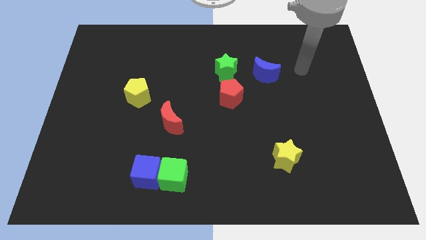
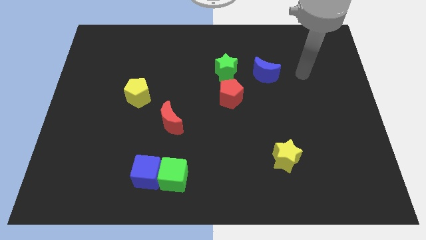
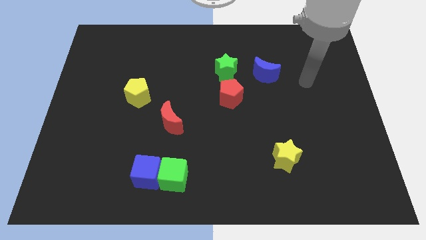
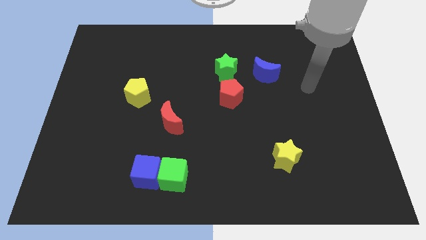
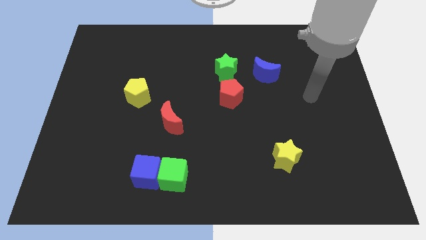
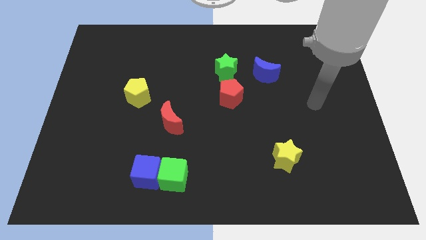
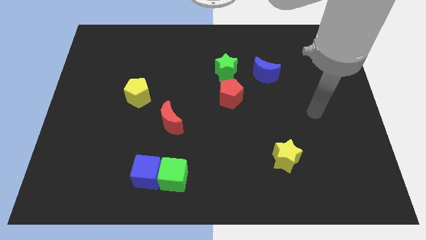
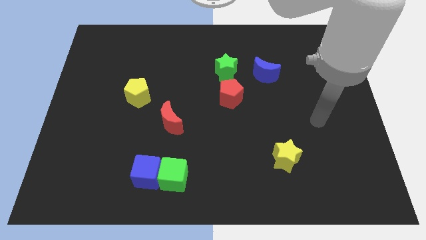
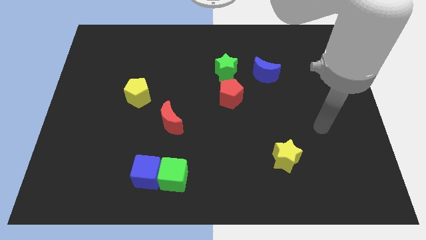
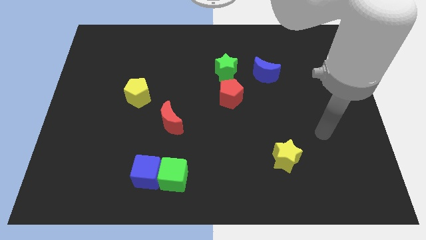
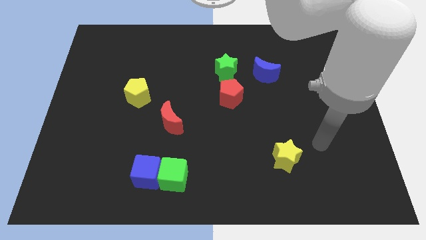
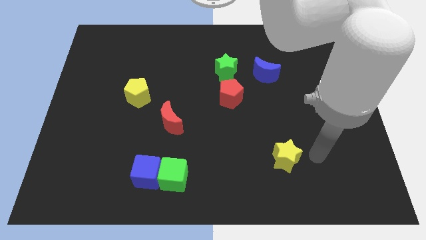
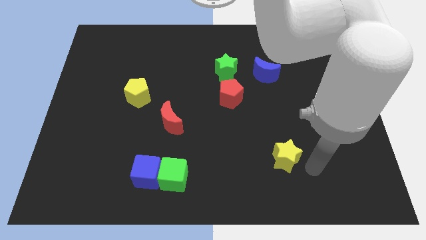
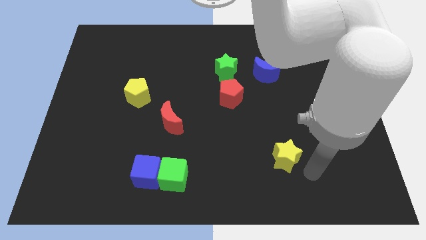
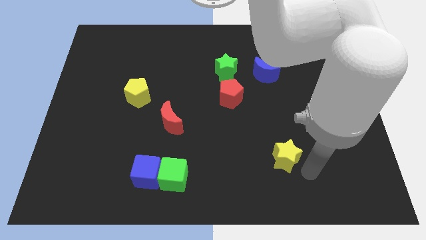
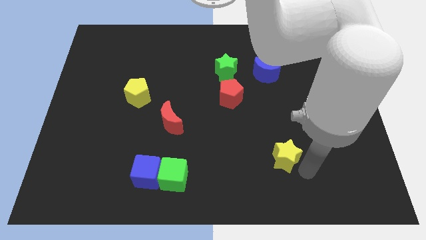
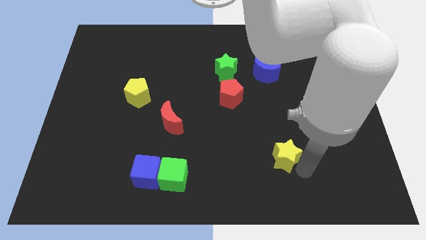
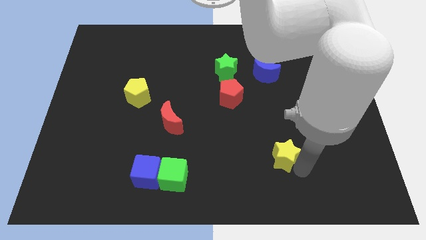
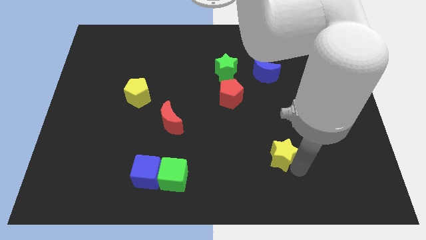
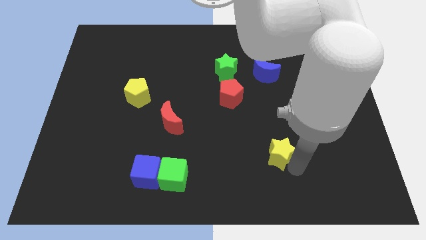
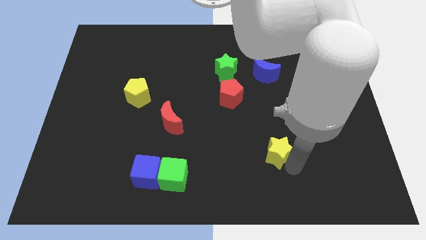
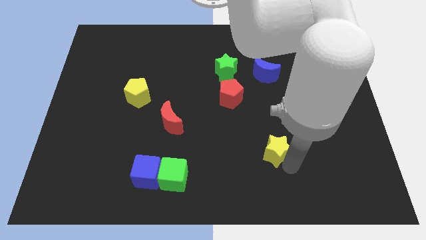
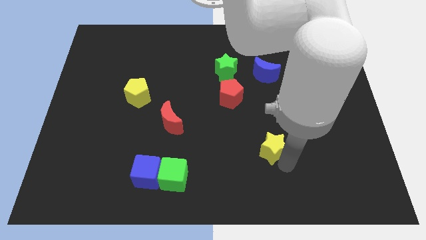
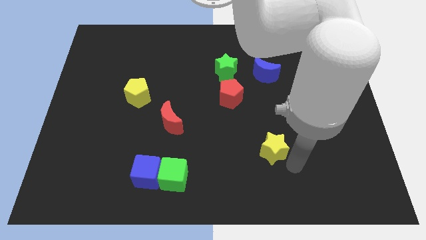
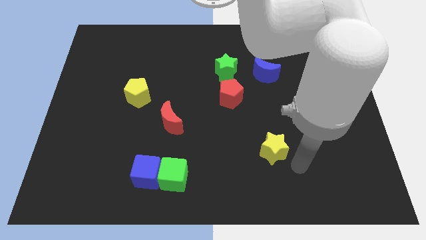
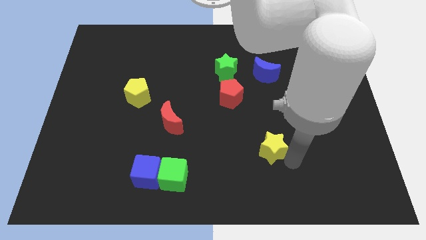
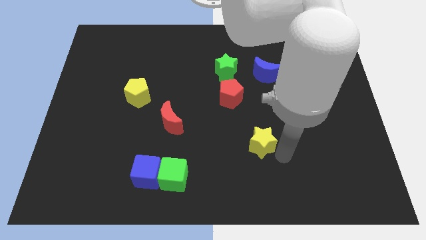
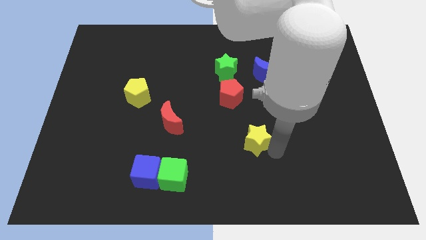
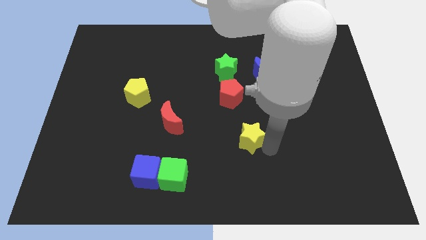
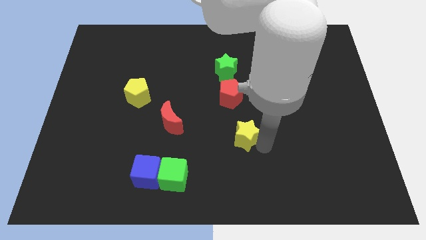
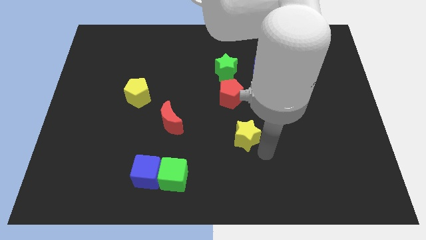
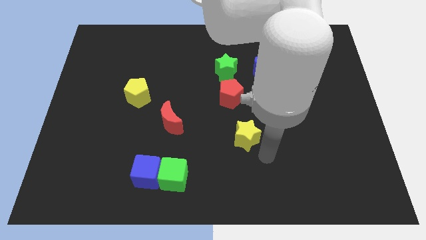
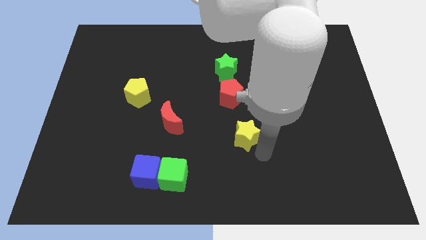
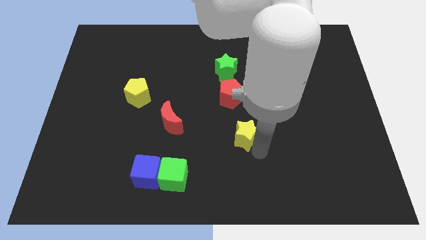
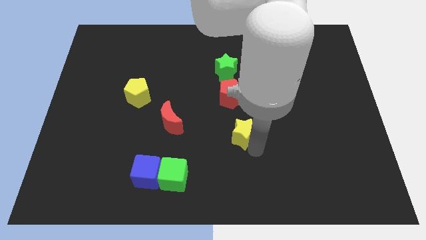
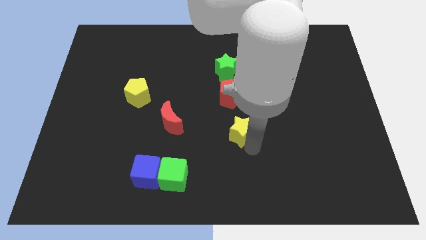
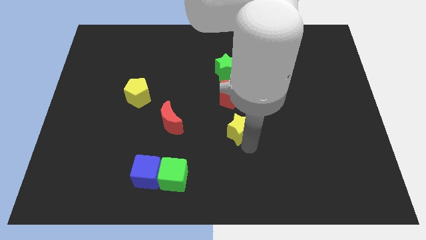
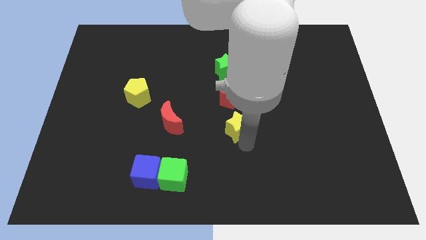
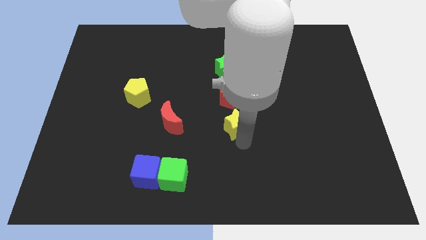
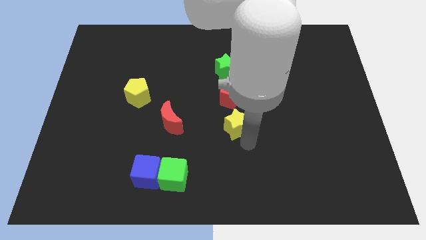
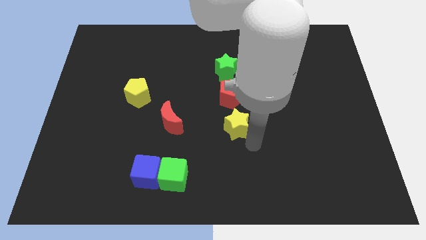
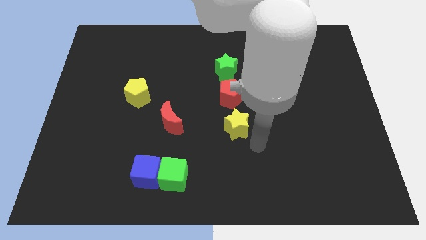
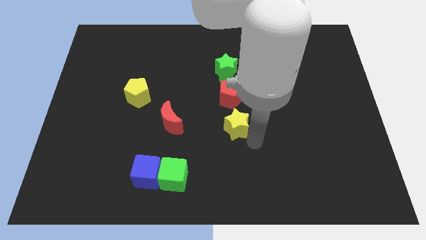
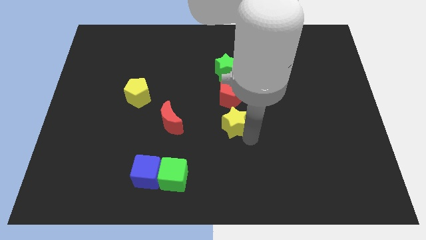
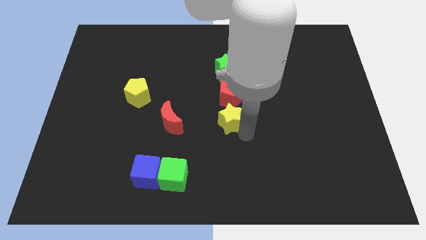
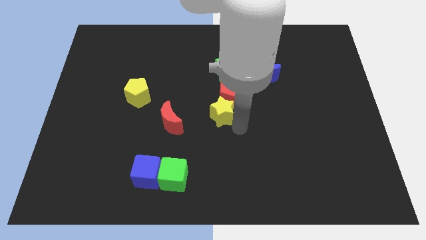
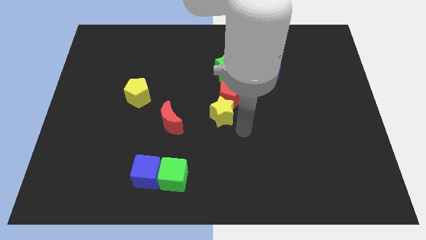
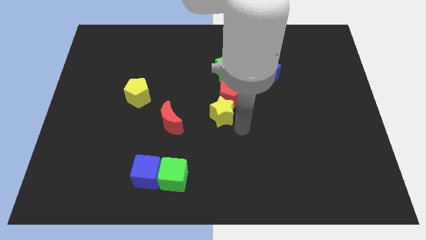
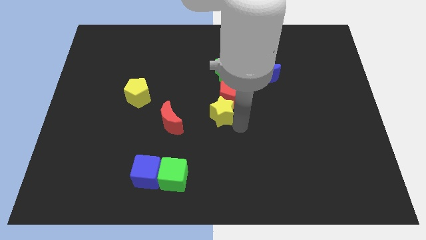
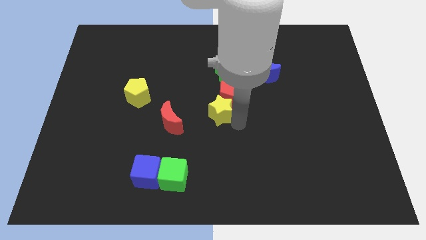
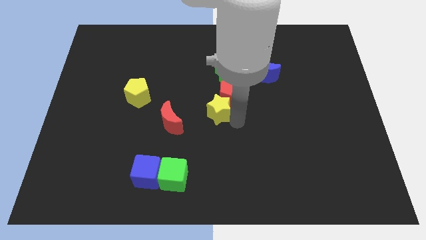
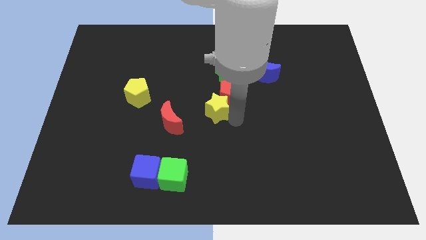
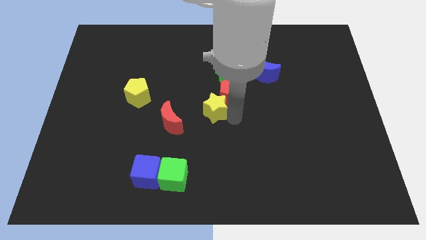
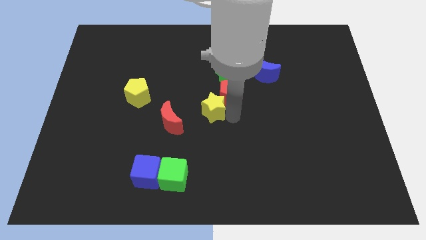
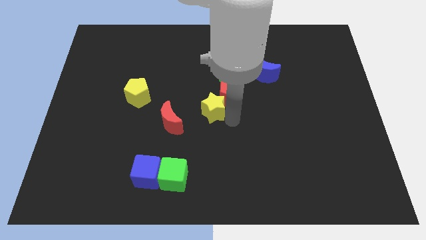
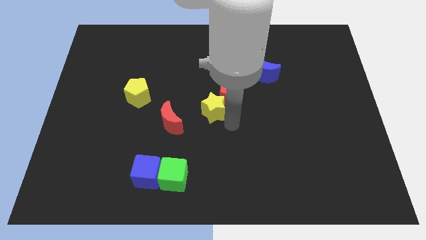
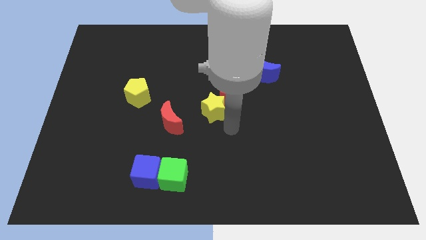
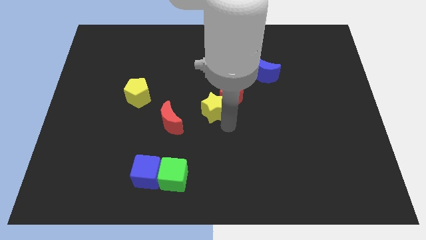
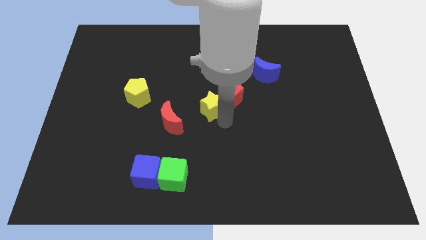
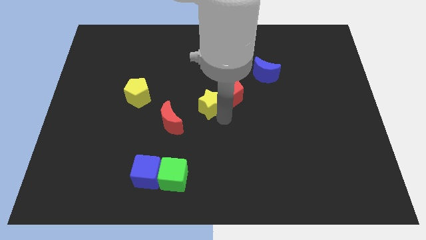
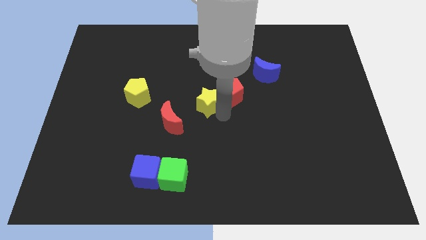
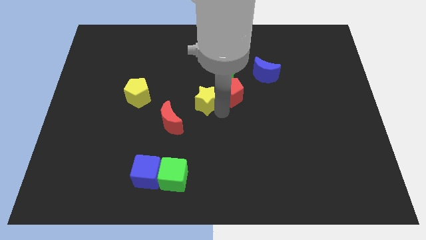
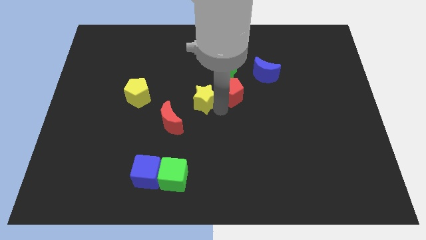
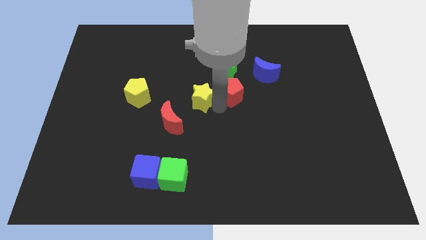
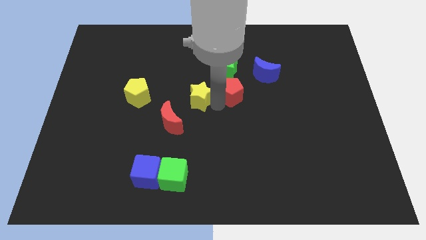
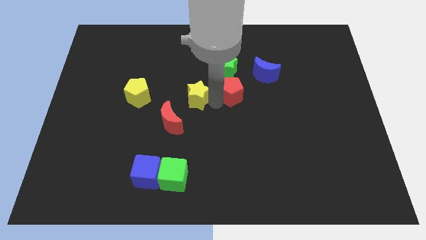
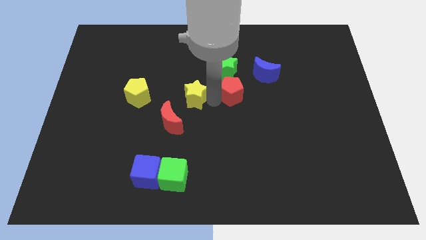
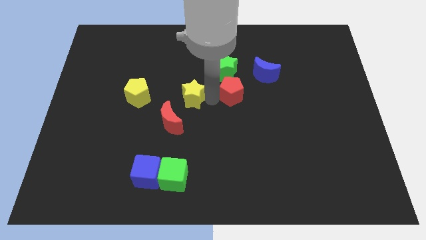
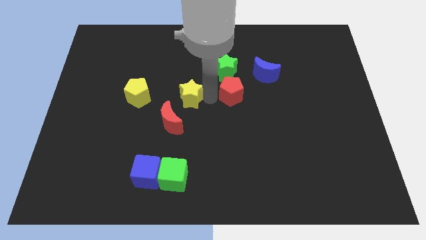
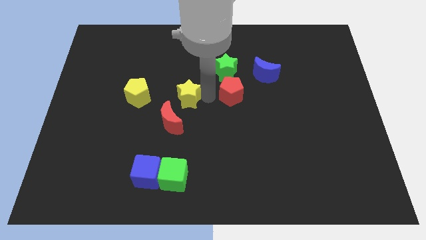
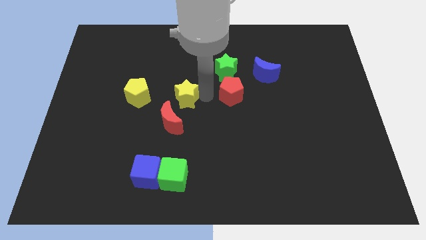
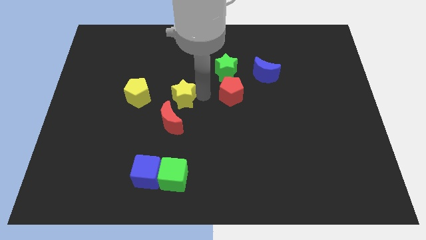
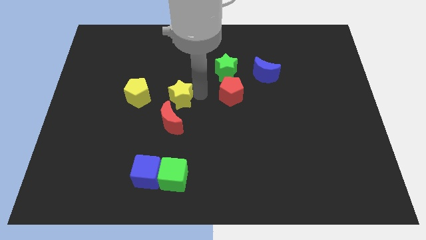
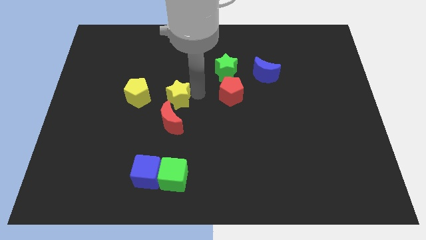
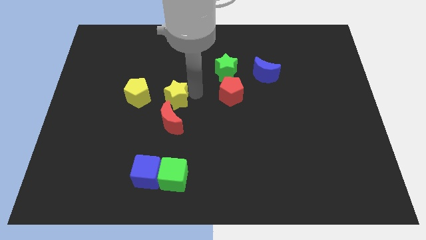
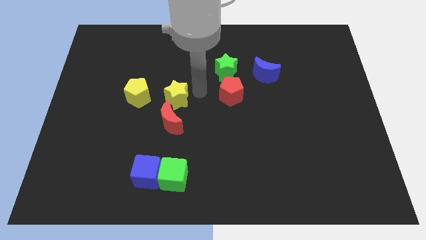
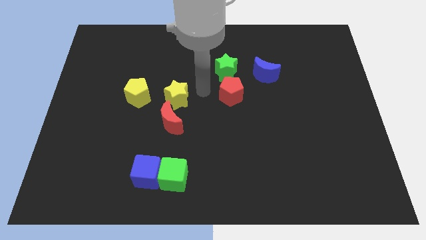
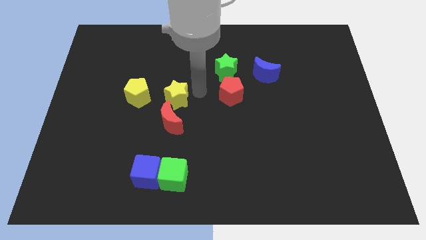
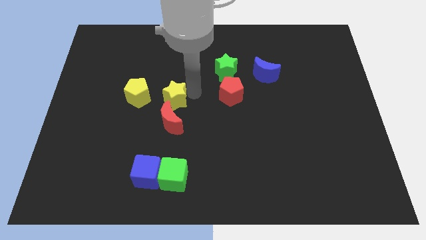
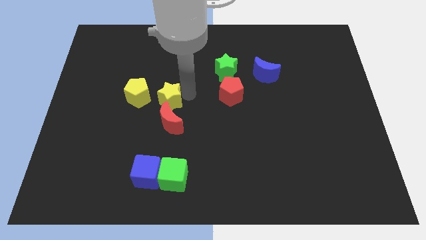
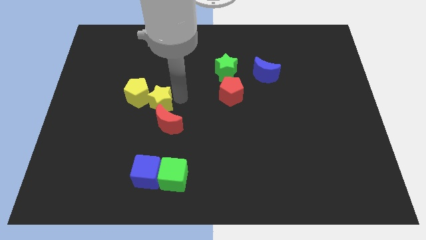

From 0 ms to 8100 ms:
push the yellow star to the yellow pentagon
